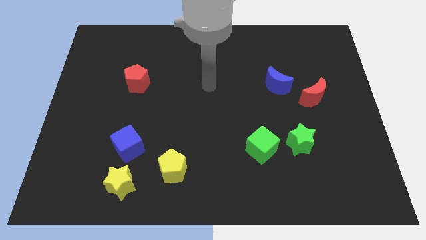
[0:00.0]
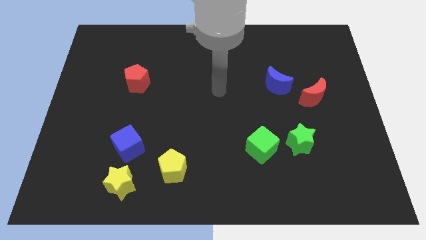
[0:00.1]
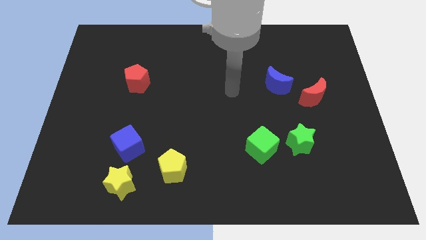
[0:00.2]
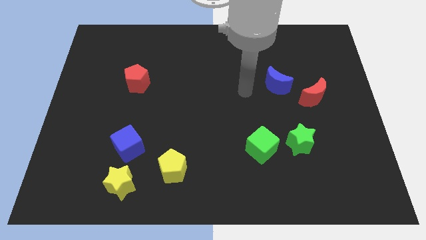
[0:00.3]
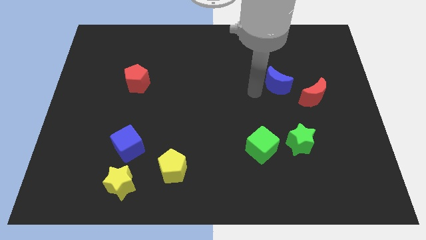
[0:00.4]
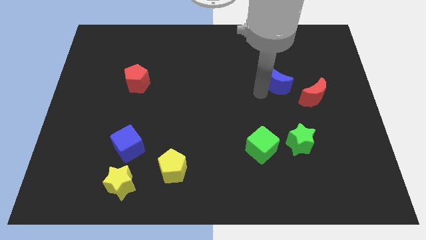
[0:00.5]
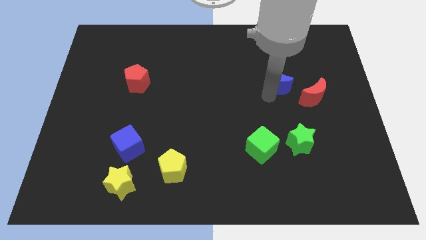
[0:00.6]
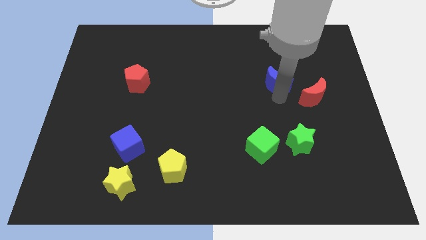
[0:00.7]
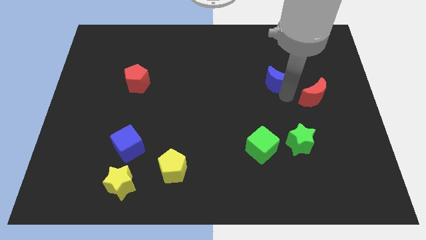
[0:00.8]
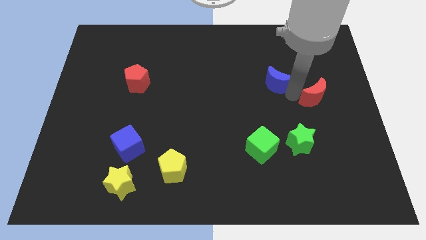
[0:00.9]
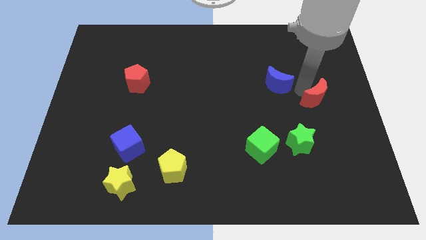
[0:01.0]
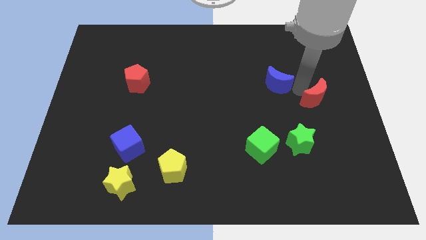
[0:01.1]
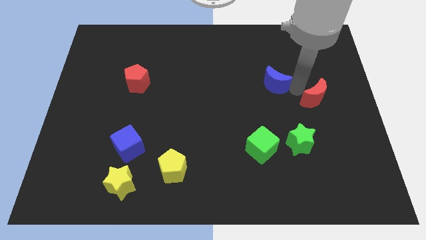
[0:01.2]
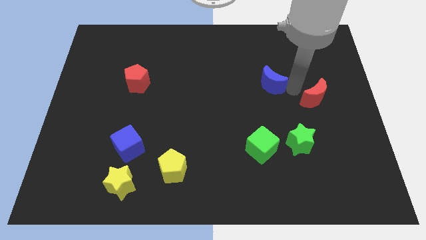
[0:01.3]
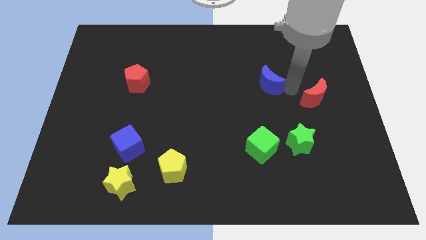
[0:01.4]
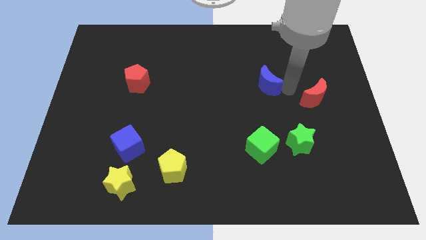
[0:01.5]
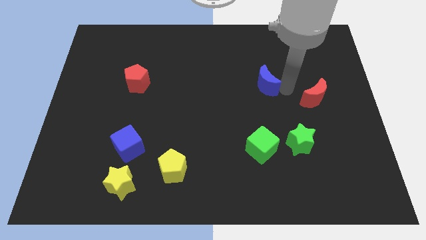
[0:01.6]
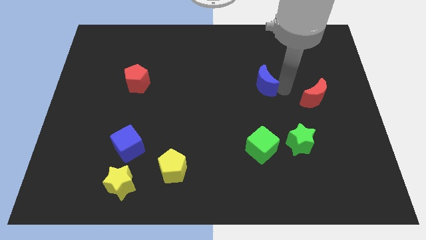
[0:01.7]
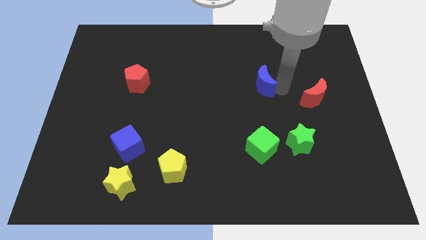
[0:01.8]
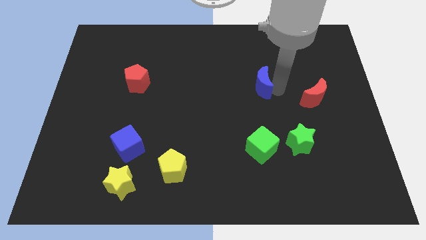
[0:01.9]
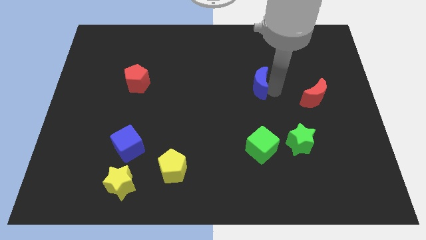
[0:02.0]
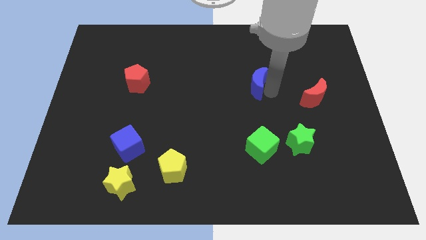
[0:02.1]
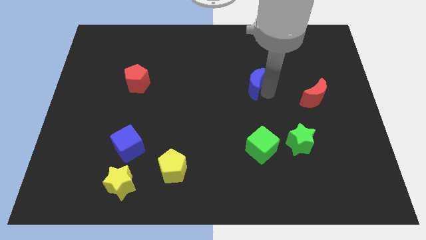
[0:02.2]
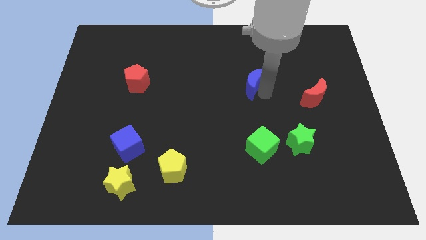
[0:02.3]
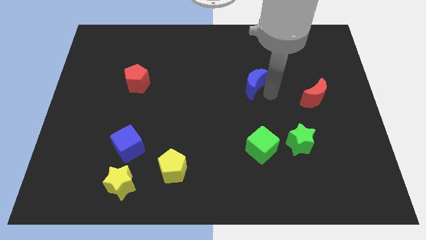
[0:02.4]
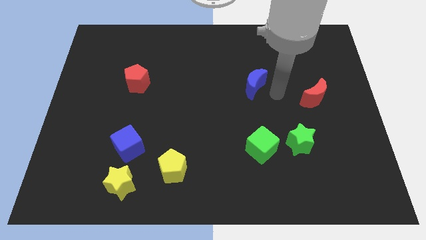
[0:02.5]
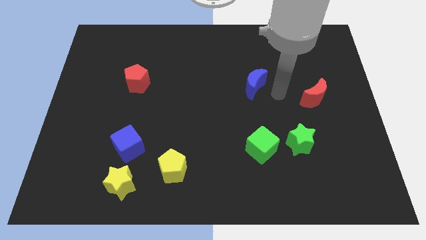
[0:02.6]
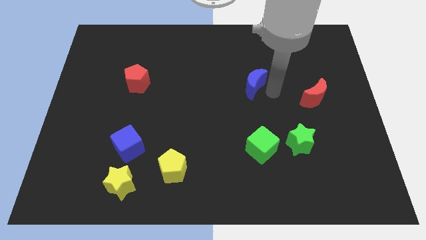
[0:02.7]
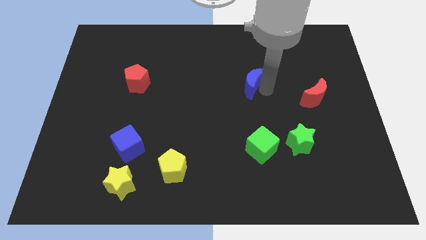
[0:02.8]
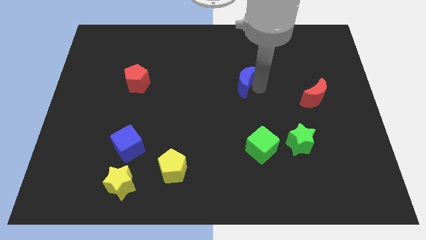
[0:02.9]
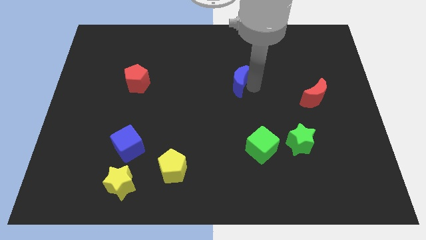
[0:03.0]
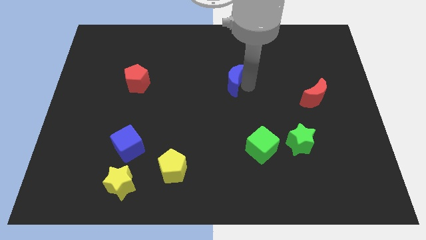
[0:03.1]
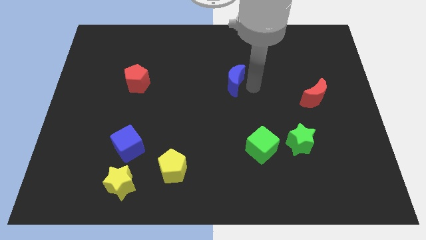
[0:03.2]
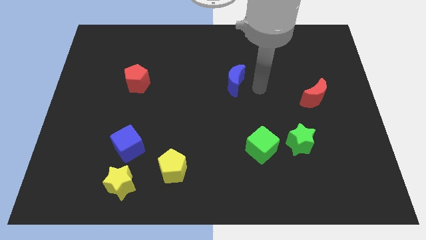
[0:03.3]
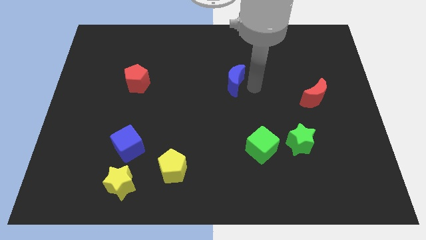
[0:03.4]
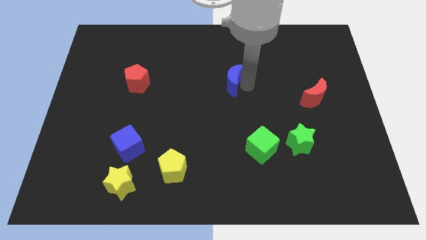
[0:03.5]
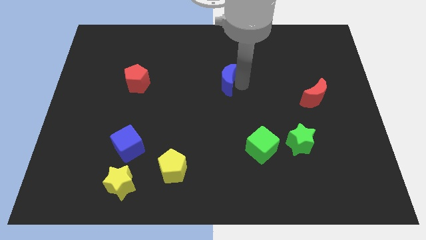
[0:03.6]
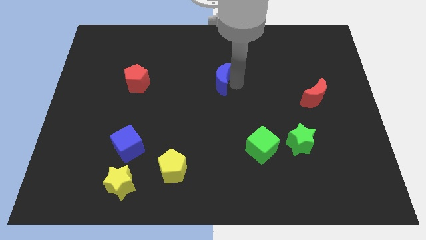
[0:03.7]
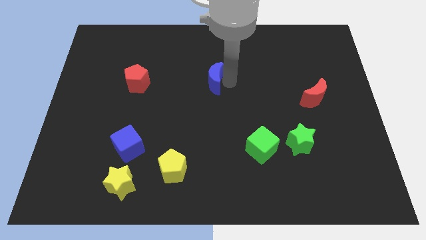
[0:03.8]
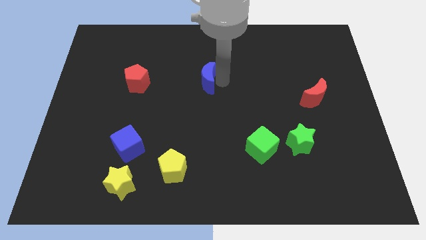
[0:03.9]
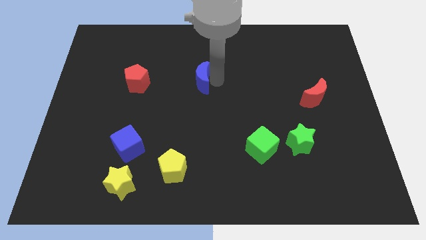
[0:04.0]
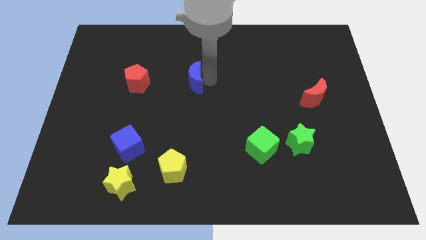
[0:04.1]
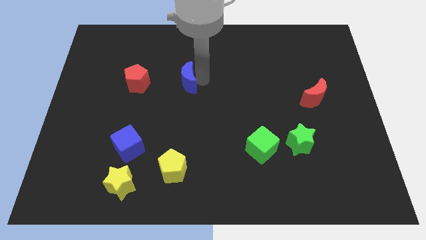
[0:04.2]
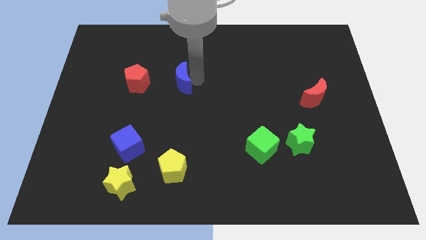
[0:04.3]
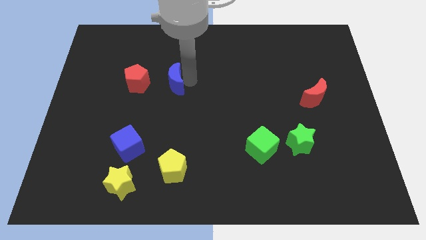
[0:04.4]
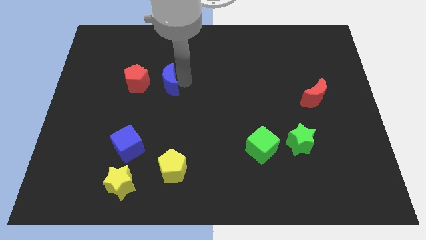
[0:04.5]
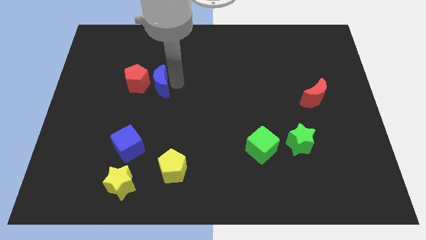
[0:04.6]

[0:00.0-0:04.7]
push the blue moon next to the red pentagon

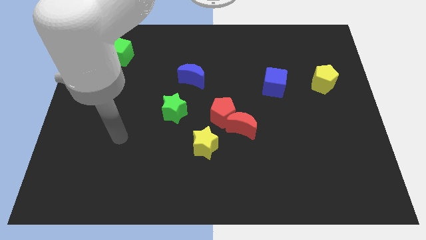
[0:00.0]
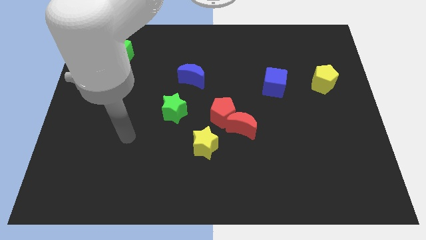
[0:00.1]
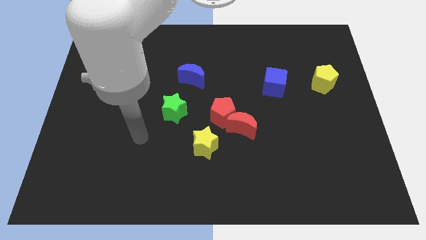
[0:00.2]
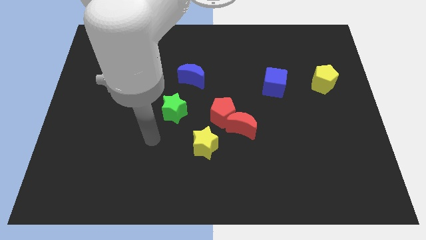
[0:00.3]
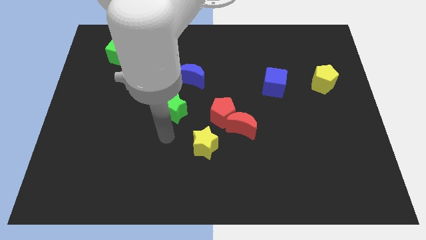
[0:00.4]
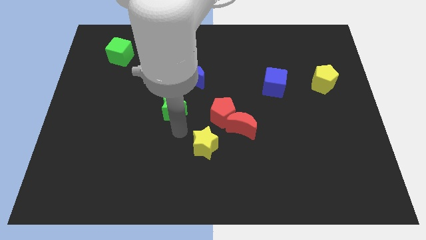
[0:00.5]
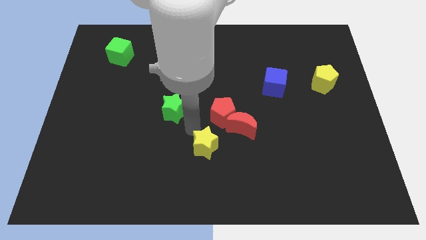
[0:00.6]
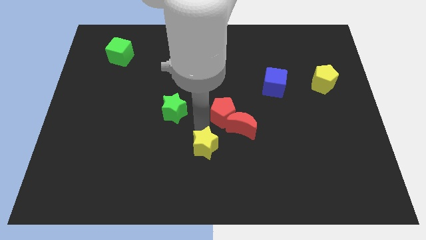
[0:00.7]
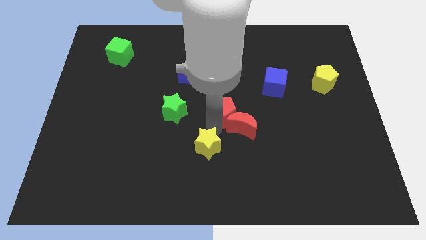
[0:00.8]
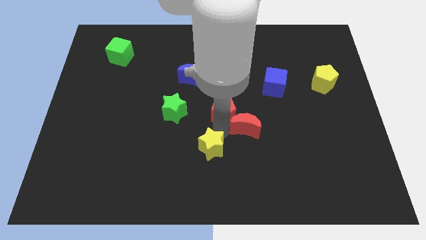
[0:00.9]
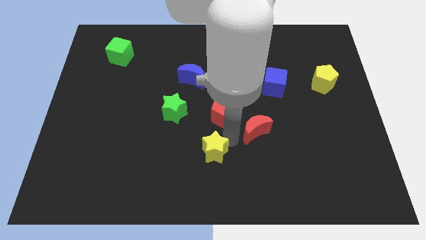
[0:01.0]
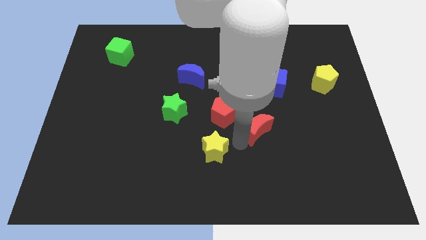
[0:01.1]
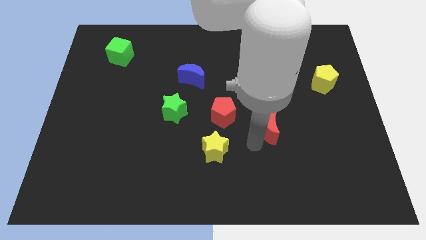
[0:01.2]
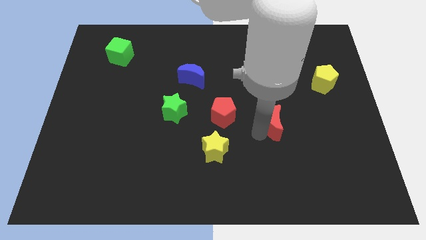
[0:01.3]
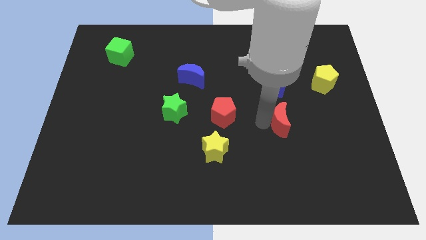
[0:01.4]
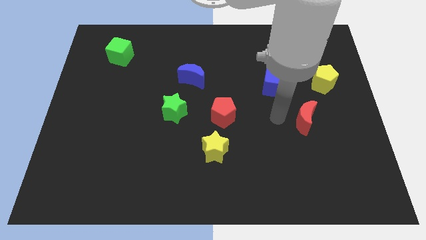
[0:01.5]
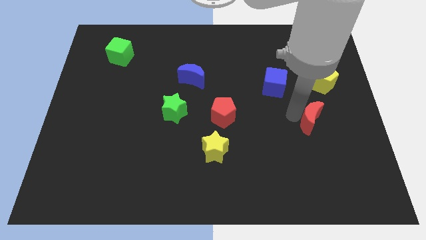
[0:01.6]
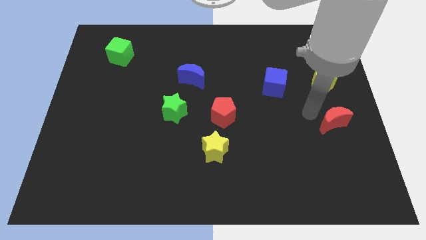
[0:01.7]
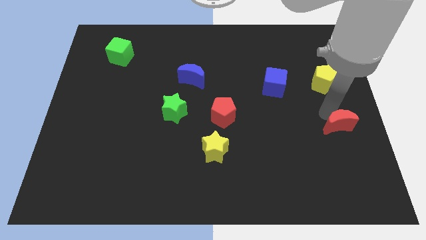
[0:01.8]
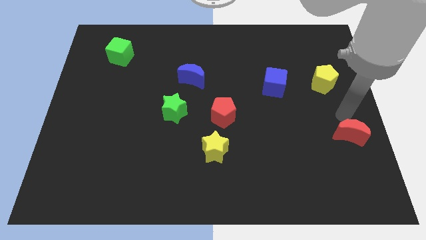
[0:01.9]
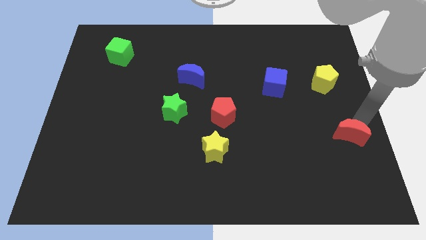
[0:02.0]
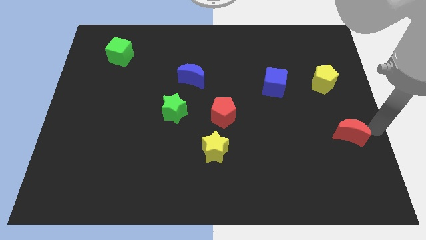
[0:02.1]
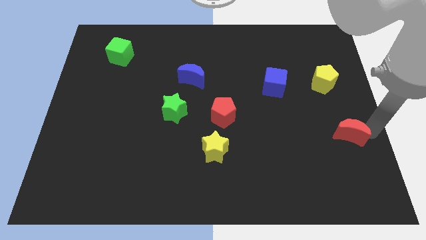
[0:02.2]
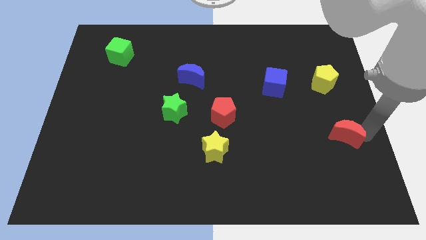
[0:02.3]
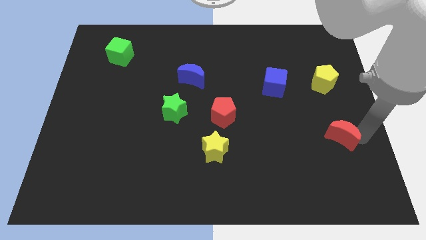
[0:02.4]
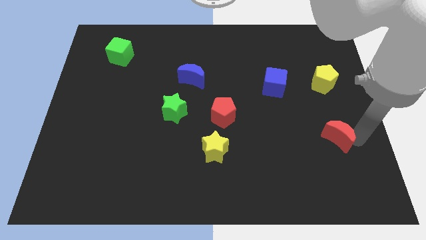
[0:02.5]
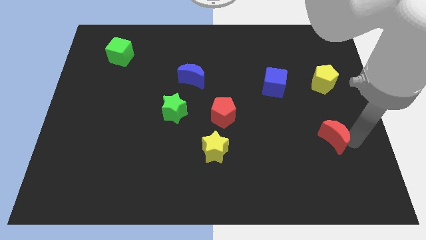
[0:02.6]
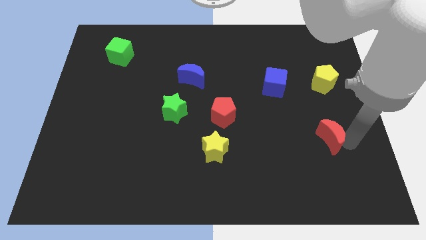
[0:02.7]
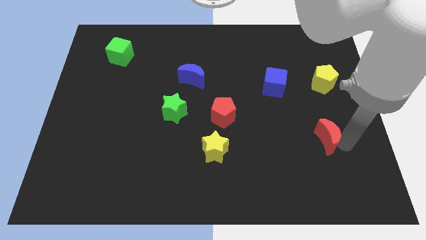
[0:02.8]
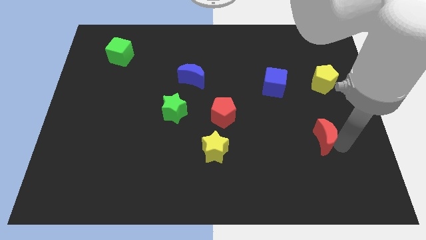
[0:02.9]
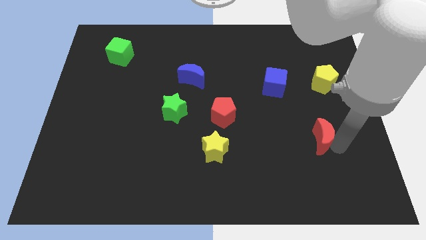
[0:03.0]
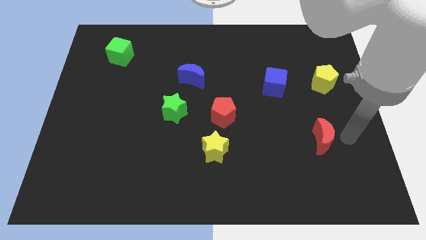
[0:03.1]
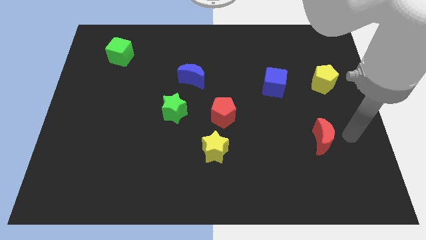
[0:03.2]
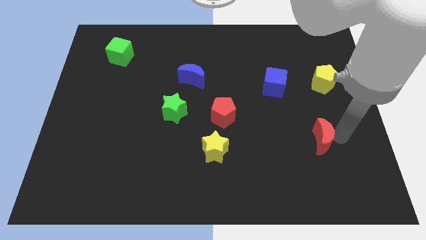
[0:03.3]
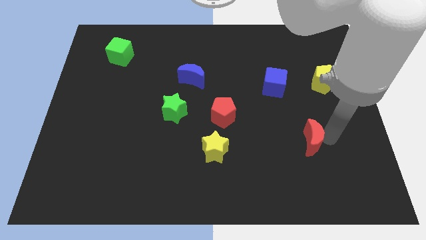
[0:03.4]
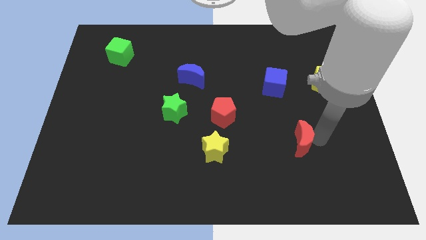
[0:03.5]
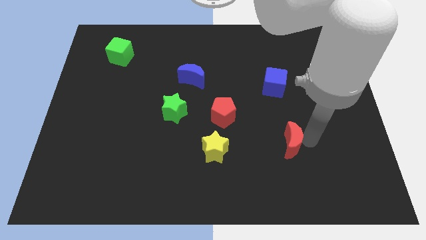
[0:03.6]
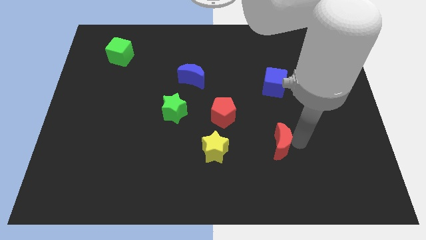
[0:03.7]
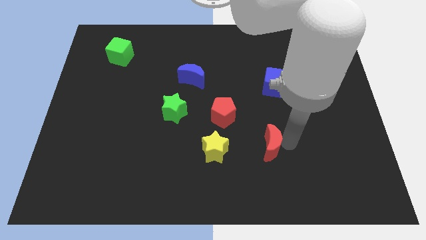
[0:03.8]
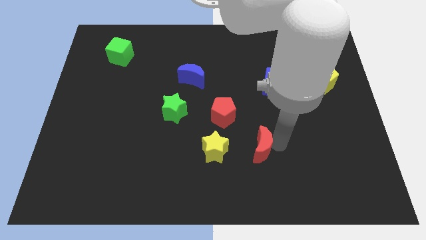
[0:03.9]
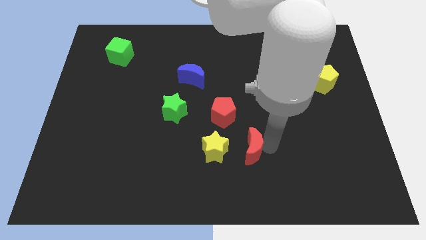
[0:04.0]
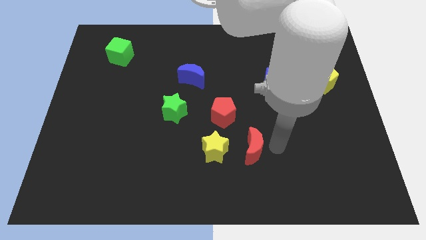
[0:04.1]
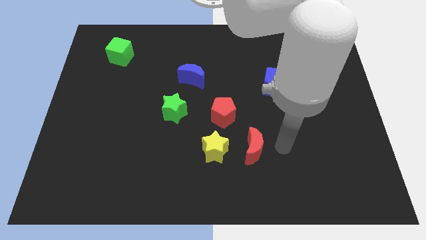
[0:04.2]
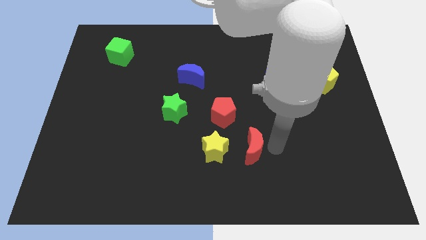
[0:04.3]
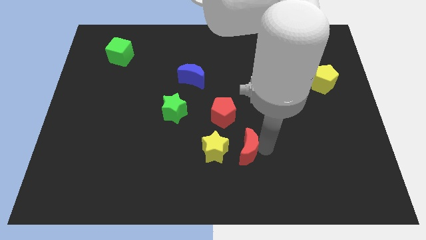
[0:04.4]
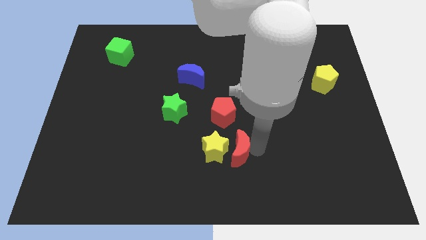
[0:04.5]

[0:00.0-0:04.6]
put the red moon towards the yellow star
